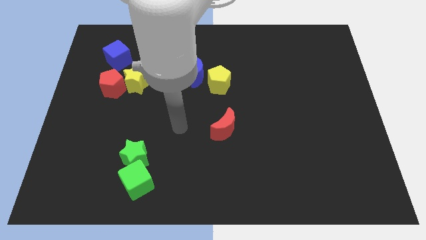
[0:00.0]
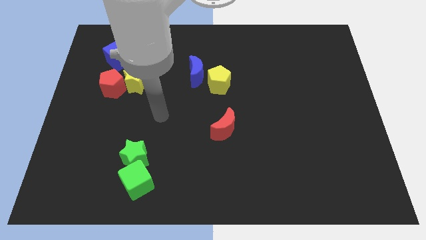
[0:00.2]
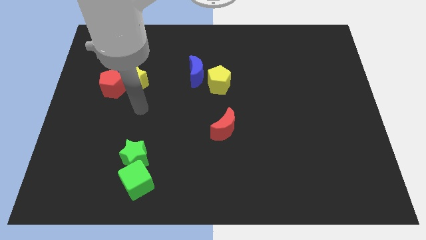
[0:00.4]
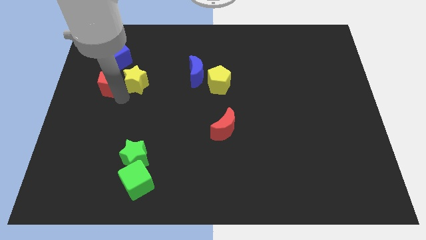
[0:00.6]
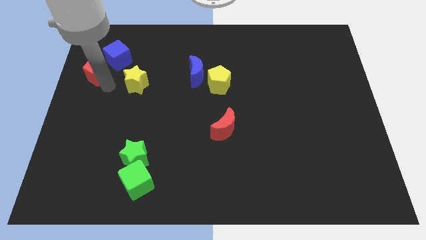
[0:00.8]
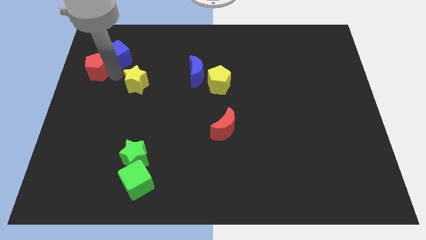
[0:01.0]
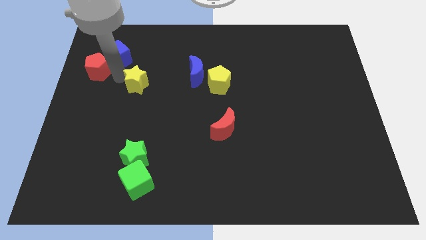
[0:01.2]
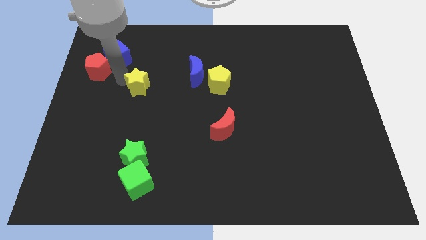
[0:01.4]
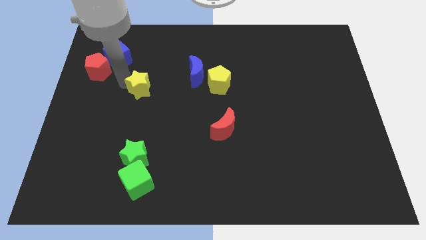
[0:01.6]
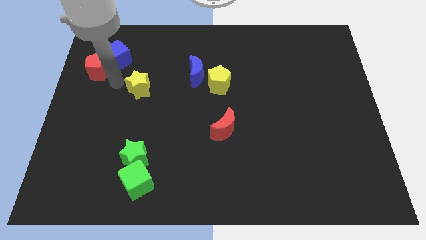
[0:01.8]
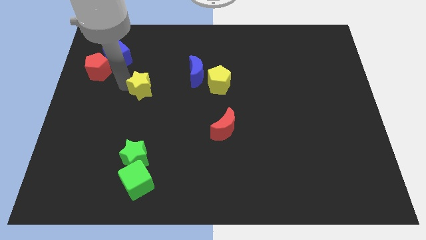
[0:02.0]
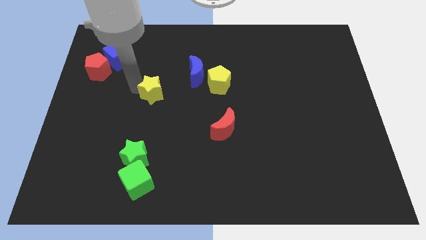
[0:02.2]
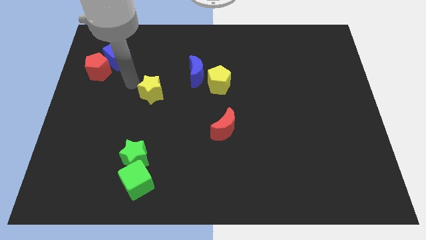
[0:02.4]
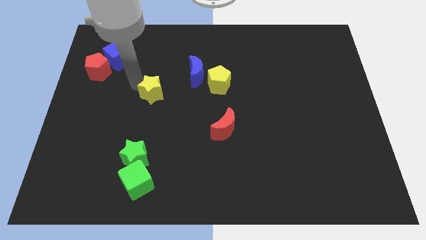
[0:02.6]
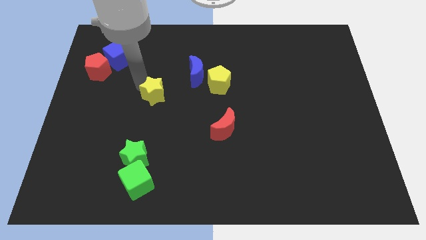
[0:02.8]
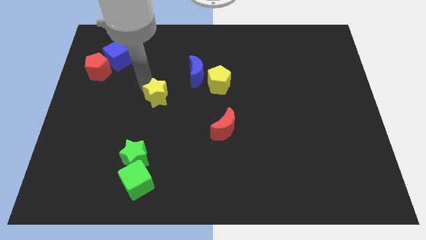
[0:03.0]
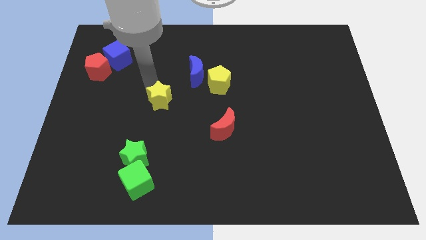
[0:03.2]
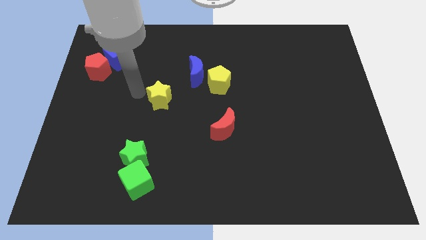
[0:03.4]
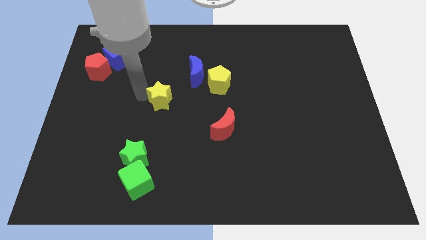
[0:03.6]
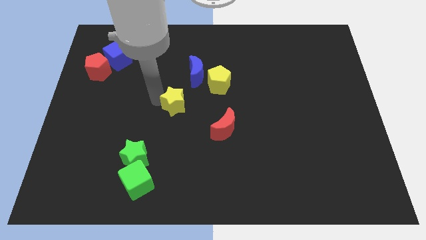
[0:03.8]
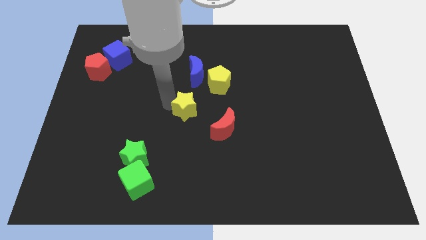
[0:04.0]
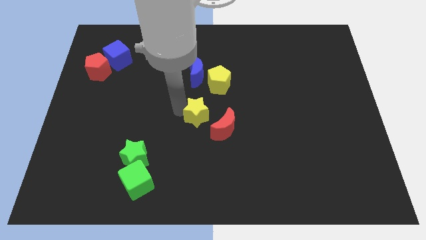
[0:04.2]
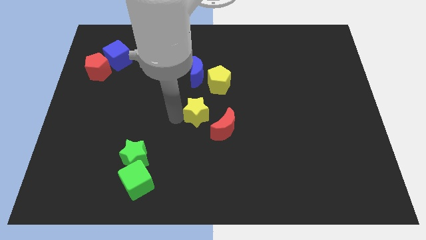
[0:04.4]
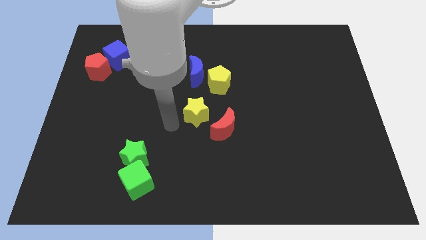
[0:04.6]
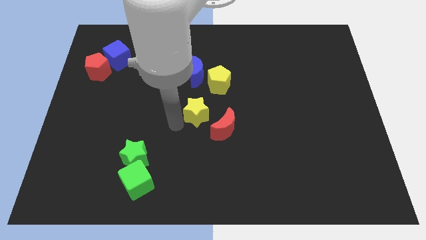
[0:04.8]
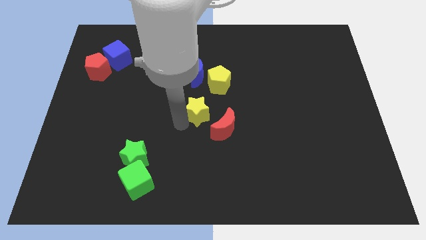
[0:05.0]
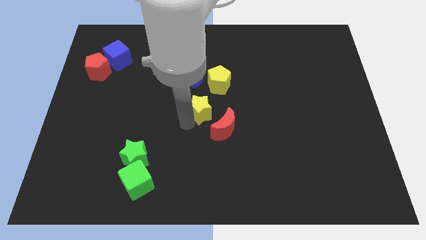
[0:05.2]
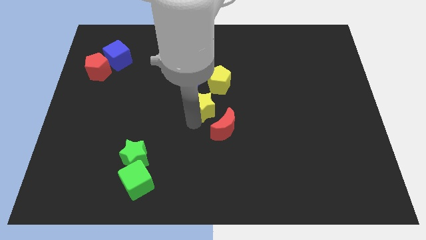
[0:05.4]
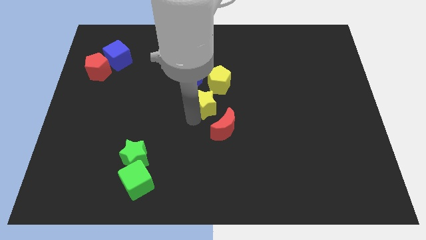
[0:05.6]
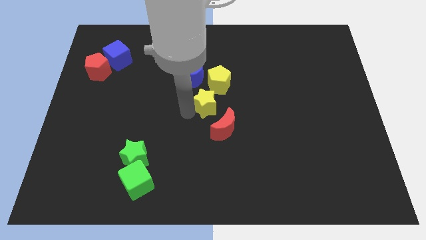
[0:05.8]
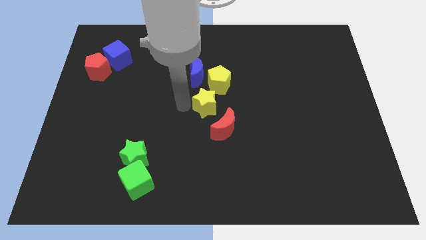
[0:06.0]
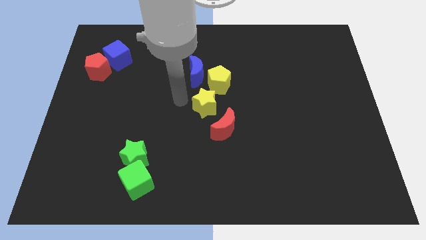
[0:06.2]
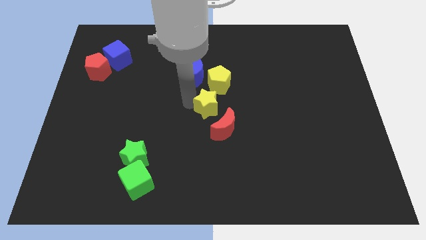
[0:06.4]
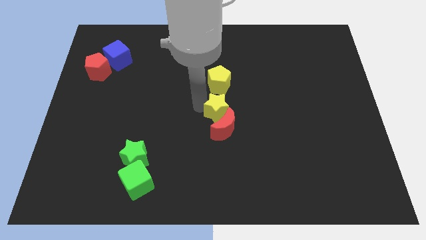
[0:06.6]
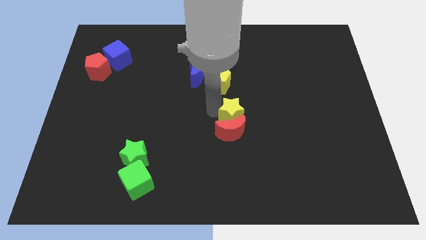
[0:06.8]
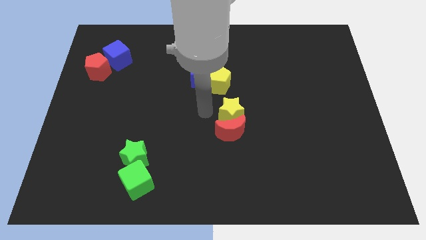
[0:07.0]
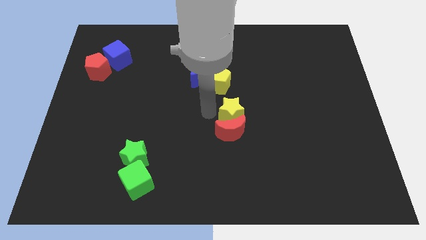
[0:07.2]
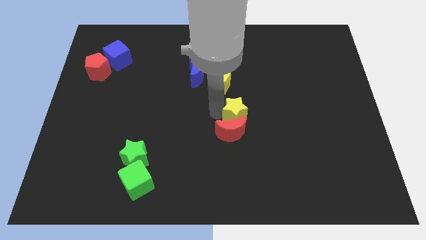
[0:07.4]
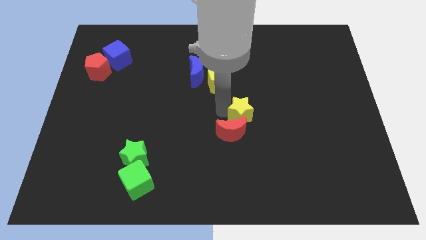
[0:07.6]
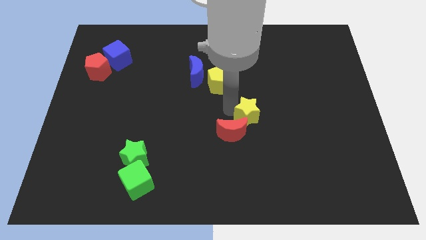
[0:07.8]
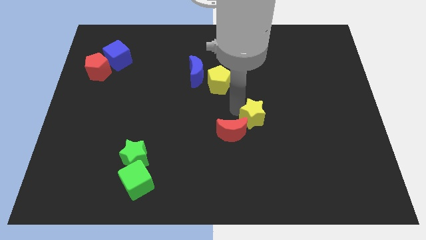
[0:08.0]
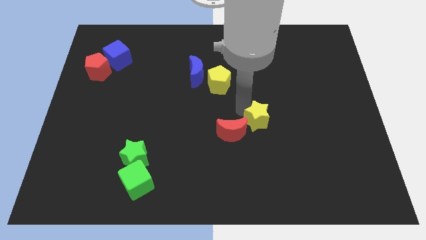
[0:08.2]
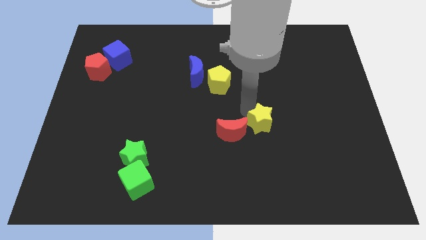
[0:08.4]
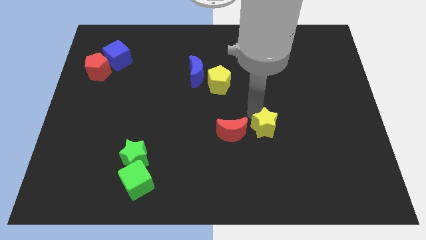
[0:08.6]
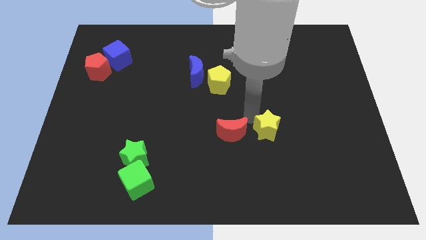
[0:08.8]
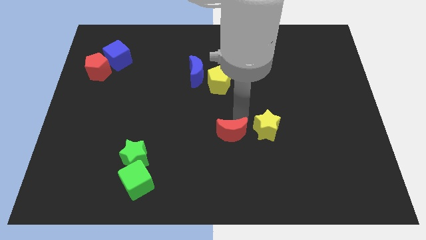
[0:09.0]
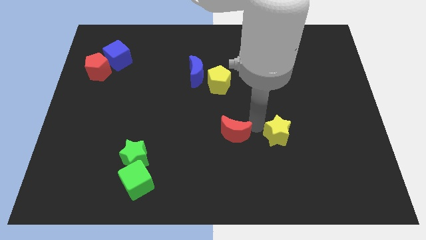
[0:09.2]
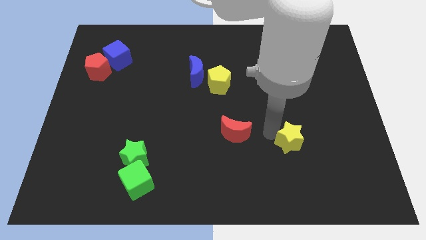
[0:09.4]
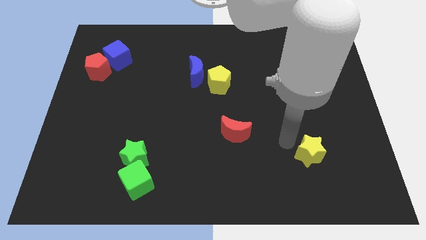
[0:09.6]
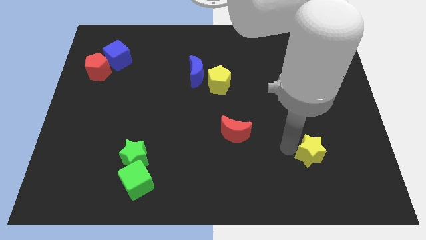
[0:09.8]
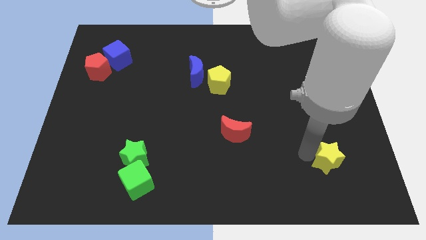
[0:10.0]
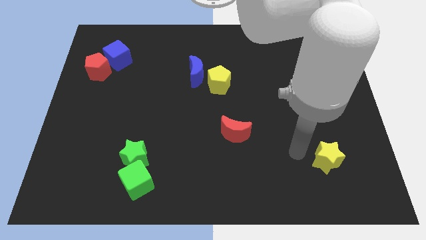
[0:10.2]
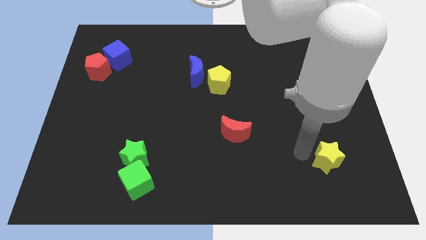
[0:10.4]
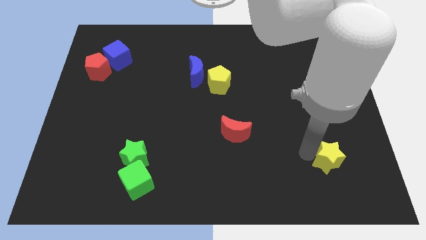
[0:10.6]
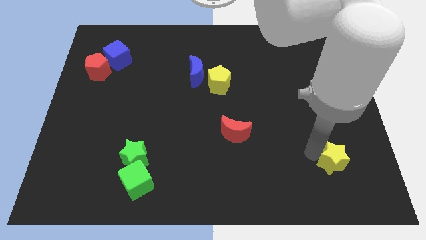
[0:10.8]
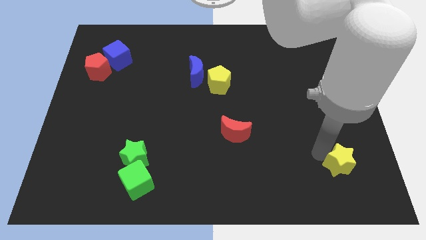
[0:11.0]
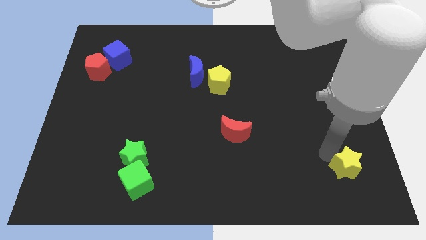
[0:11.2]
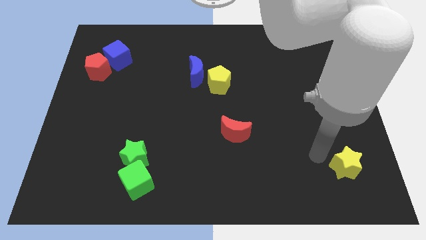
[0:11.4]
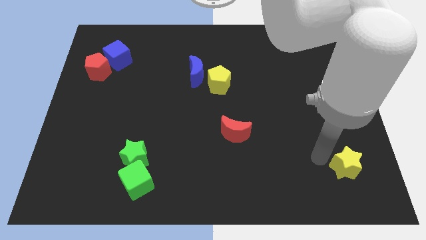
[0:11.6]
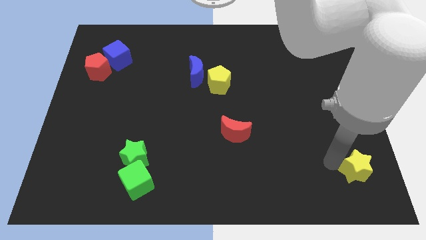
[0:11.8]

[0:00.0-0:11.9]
put the yellow star to the bottom right of the board

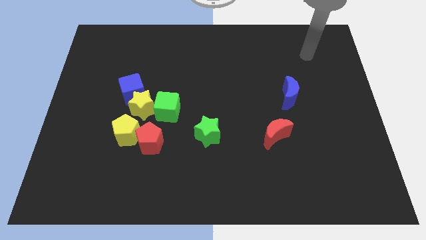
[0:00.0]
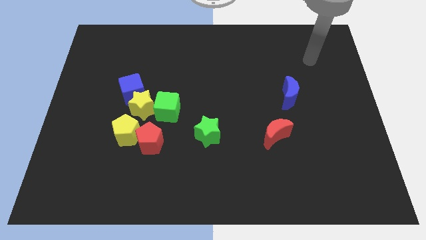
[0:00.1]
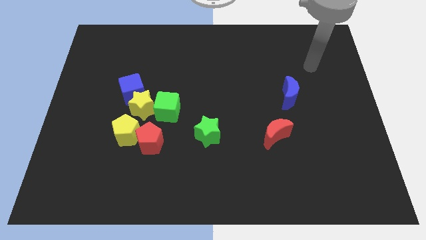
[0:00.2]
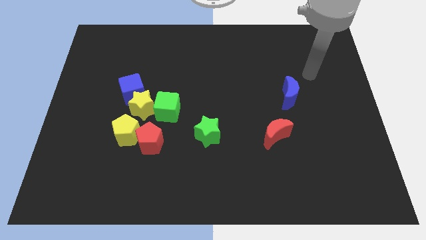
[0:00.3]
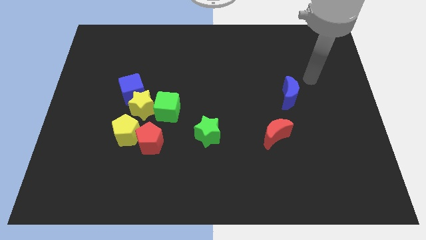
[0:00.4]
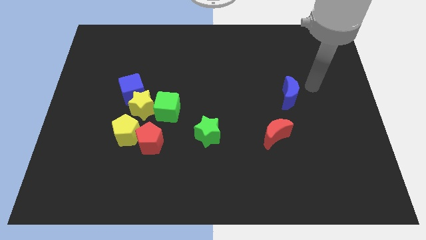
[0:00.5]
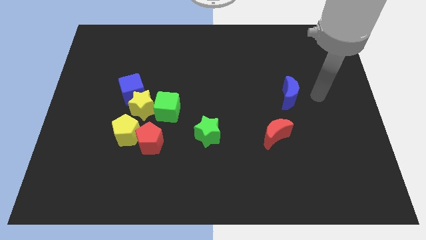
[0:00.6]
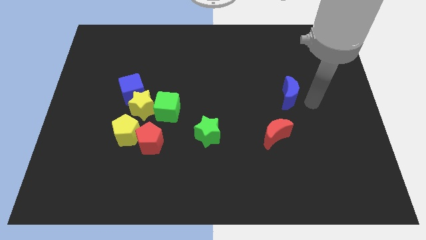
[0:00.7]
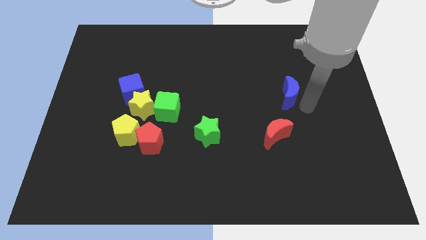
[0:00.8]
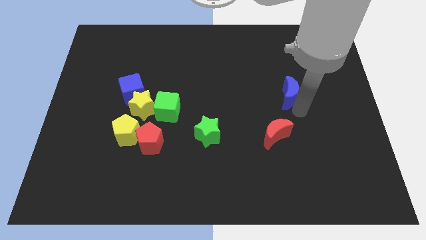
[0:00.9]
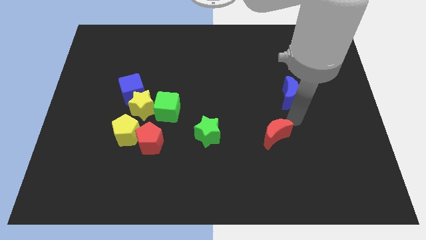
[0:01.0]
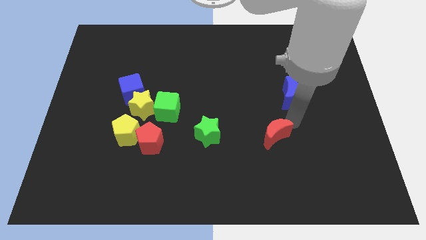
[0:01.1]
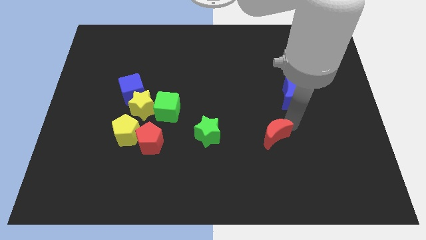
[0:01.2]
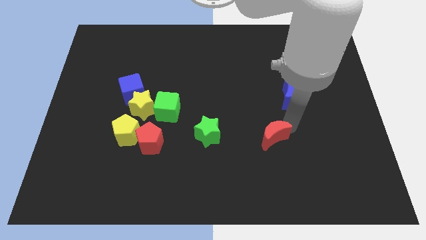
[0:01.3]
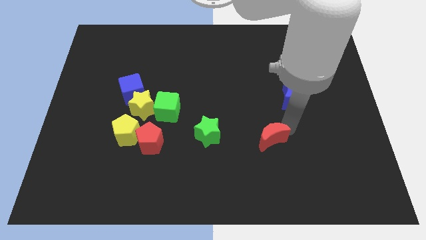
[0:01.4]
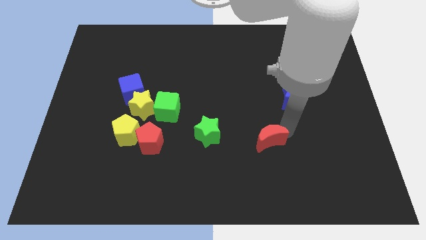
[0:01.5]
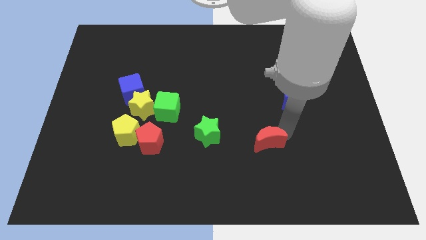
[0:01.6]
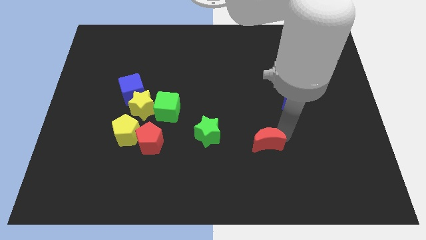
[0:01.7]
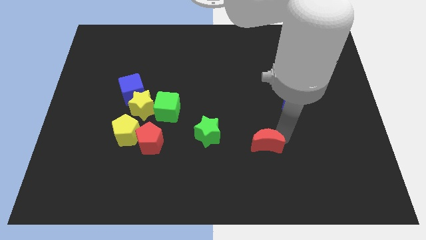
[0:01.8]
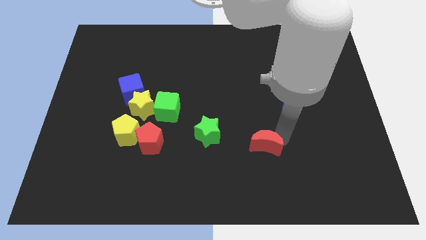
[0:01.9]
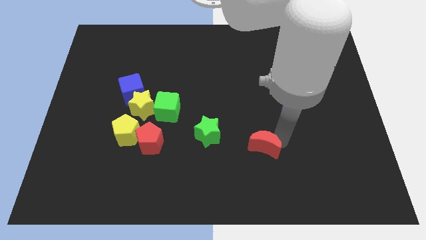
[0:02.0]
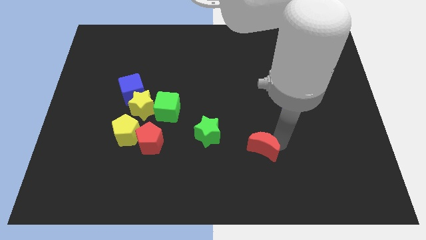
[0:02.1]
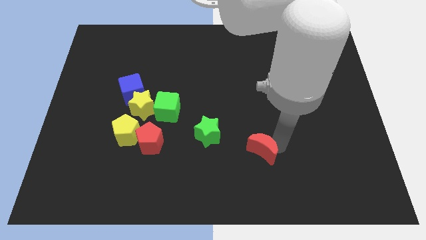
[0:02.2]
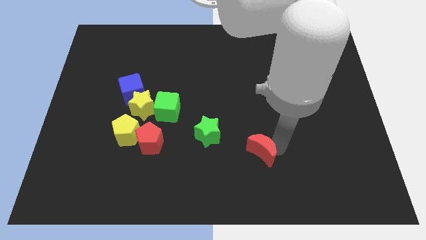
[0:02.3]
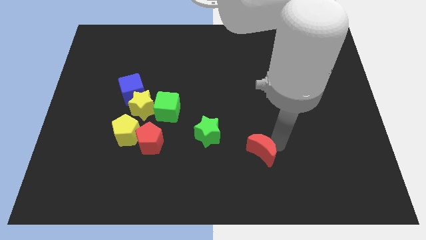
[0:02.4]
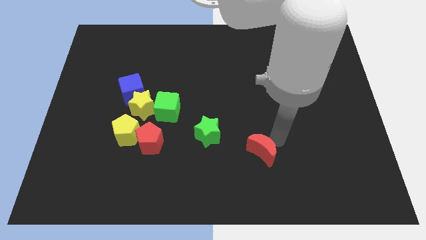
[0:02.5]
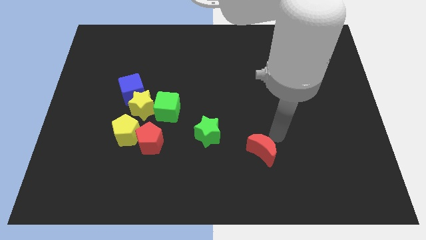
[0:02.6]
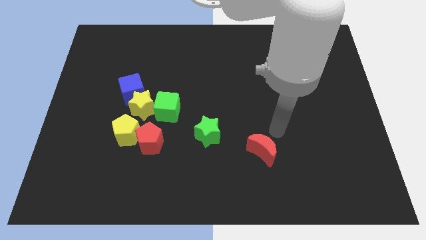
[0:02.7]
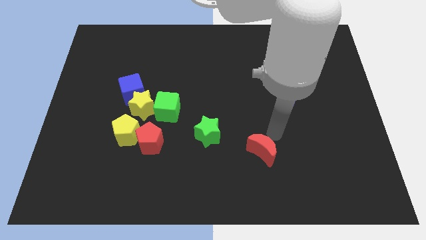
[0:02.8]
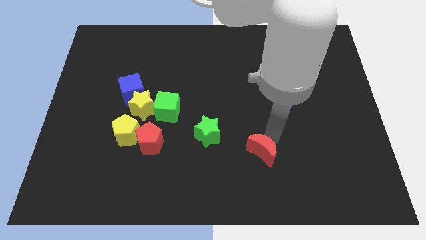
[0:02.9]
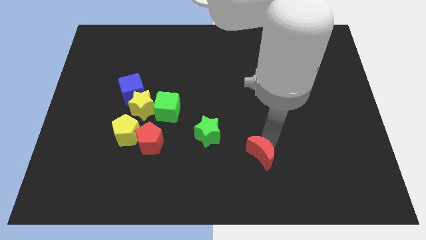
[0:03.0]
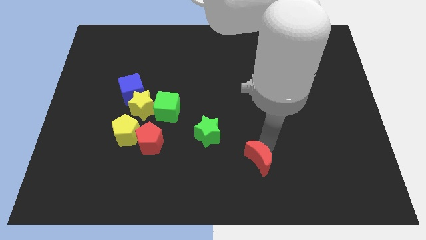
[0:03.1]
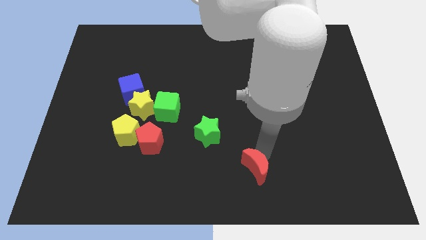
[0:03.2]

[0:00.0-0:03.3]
put the red moon to the bottom
